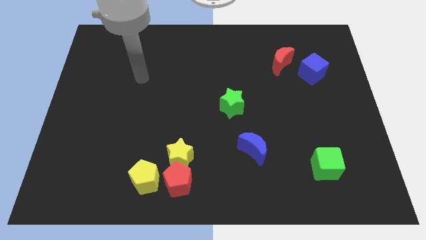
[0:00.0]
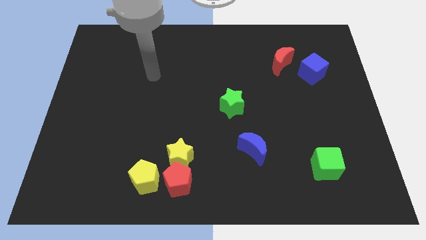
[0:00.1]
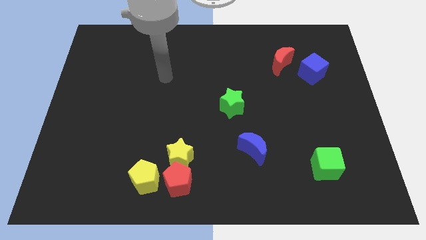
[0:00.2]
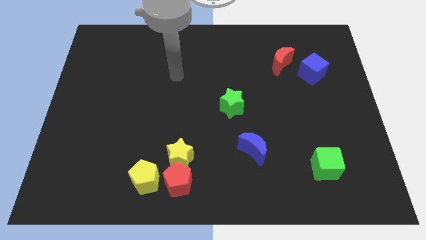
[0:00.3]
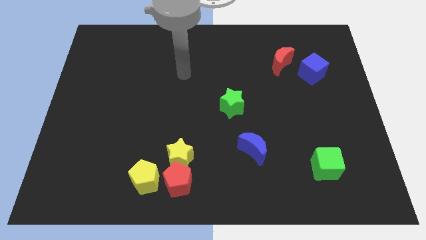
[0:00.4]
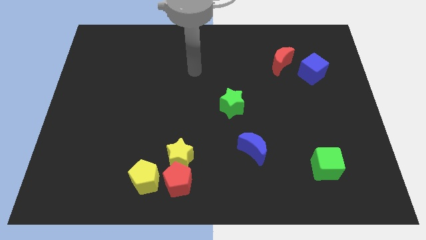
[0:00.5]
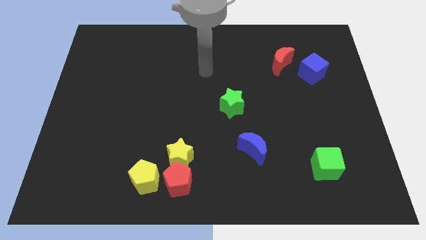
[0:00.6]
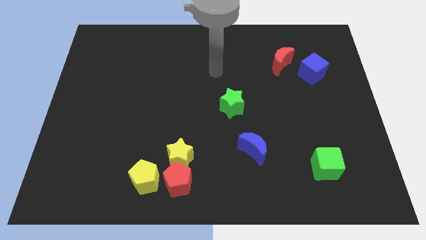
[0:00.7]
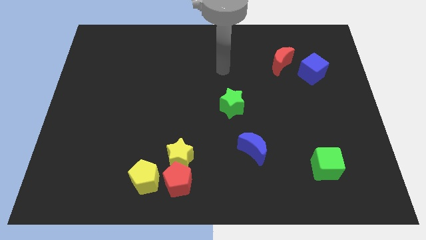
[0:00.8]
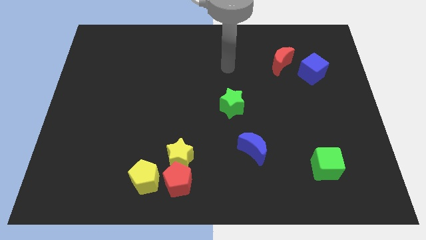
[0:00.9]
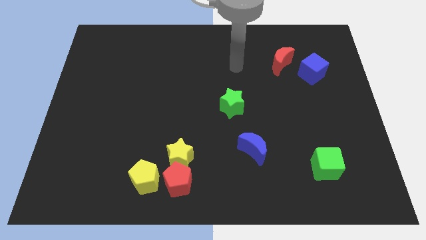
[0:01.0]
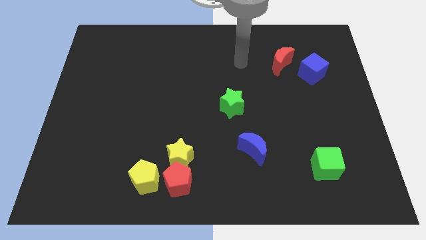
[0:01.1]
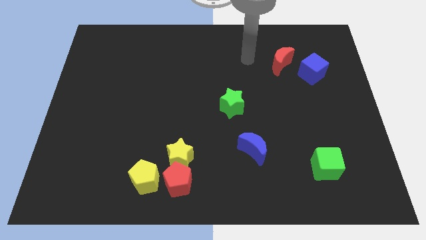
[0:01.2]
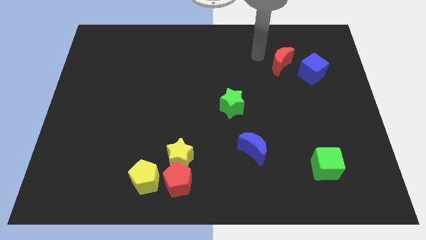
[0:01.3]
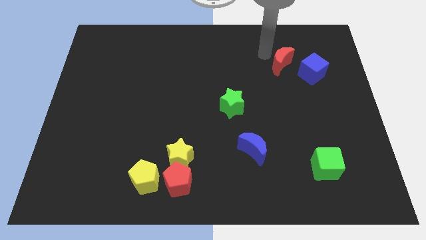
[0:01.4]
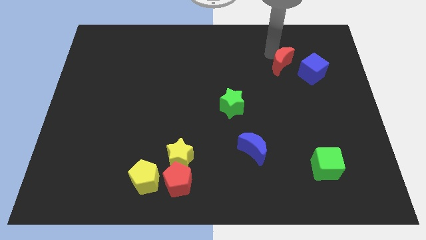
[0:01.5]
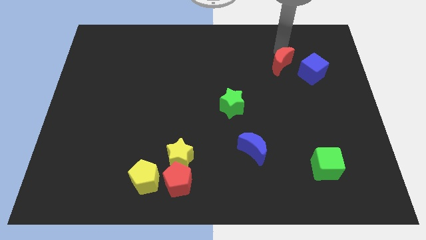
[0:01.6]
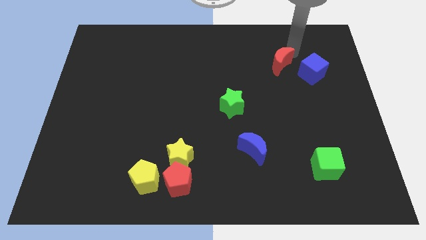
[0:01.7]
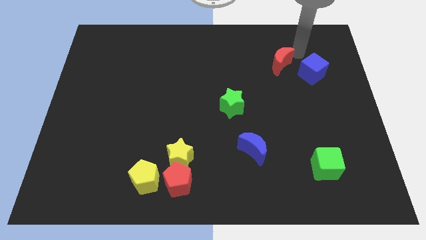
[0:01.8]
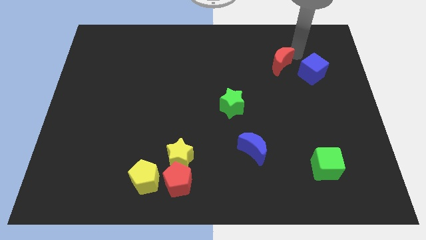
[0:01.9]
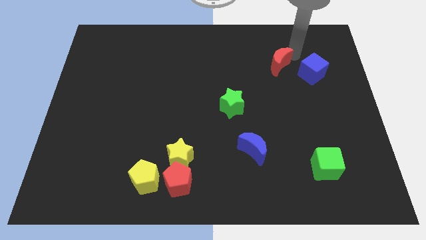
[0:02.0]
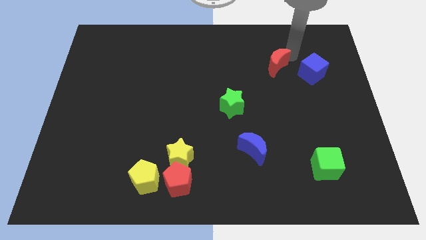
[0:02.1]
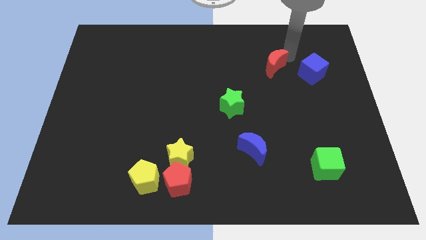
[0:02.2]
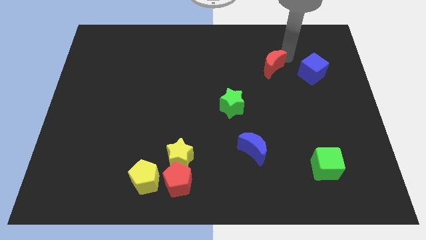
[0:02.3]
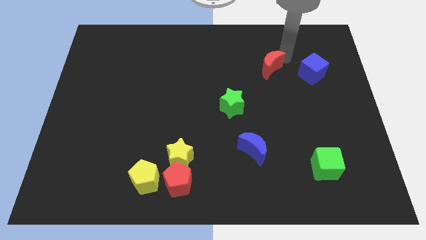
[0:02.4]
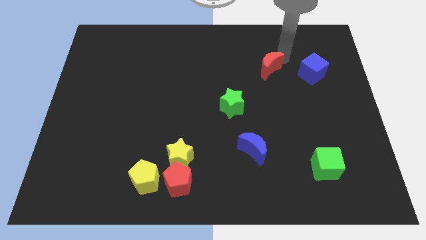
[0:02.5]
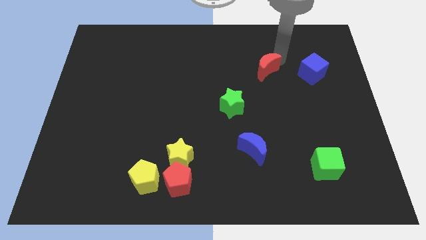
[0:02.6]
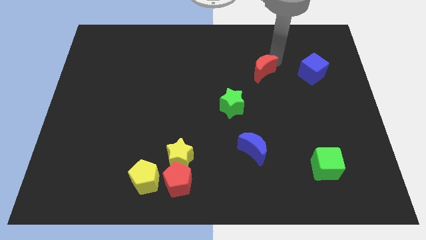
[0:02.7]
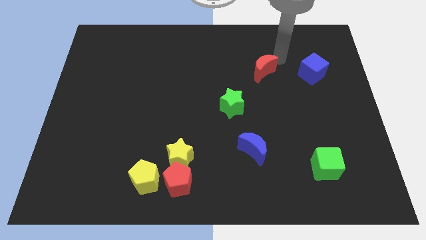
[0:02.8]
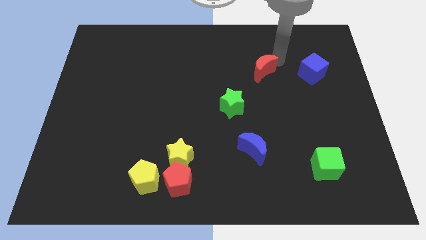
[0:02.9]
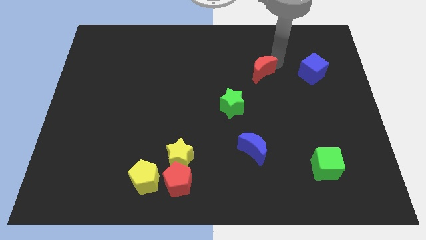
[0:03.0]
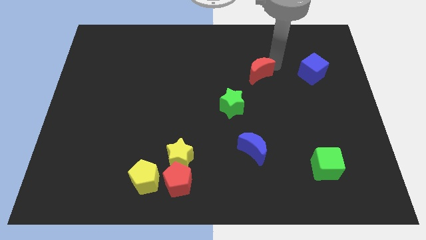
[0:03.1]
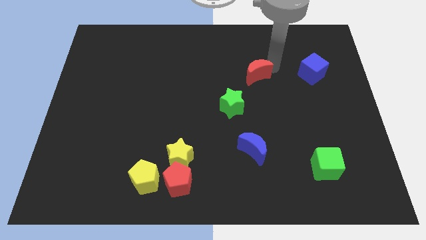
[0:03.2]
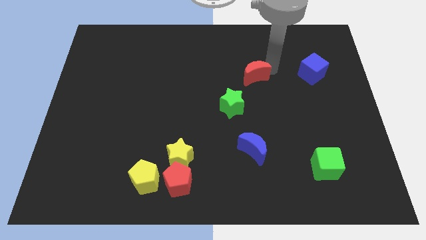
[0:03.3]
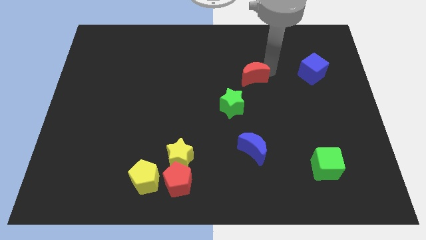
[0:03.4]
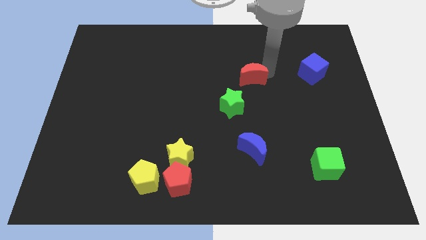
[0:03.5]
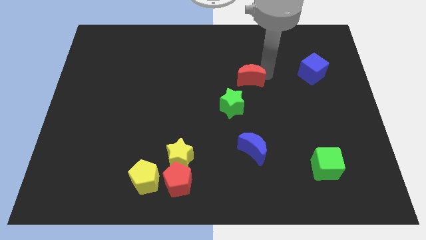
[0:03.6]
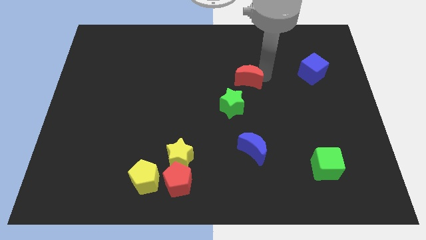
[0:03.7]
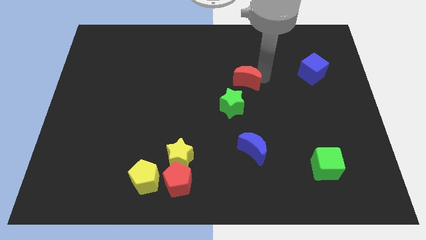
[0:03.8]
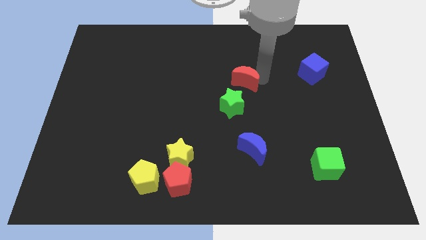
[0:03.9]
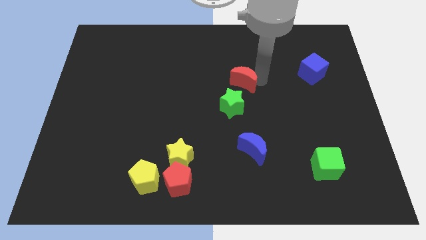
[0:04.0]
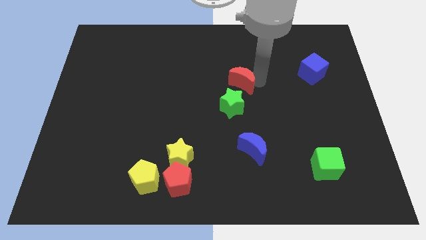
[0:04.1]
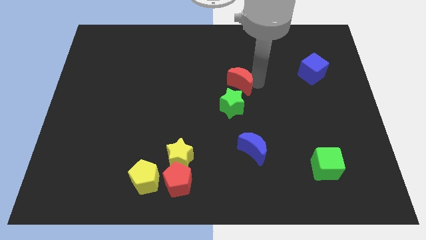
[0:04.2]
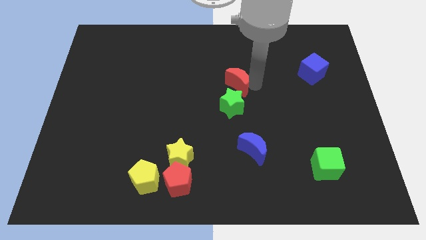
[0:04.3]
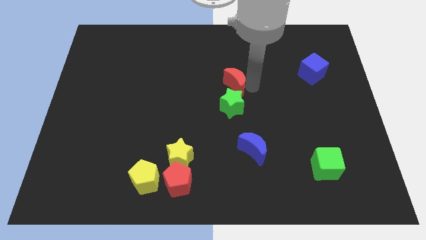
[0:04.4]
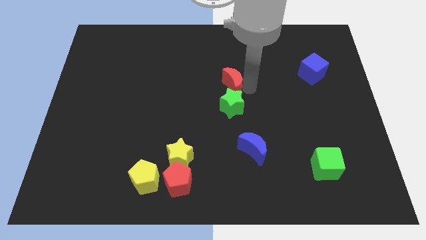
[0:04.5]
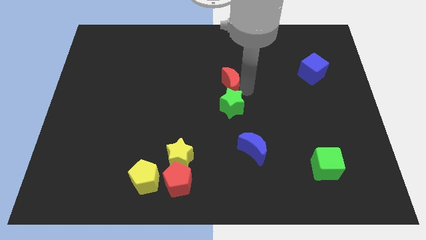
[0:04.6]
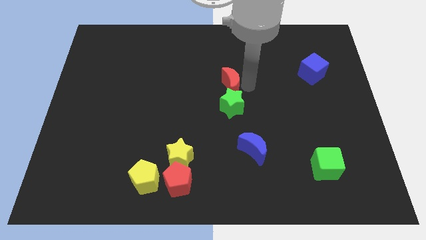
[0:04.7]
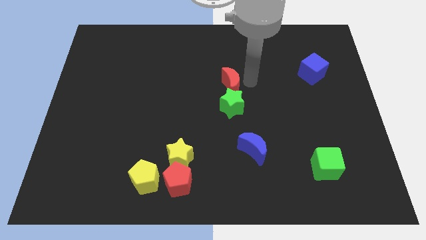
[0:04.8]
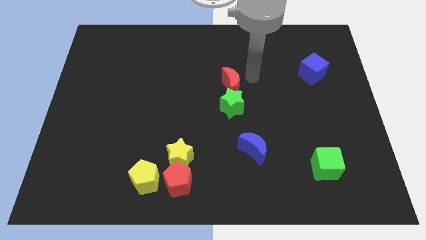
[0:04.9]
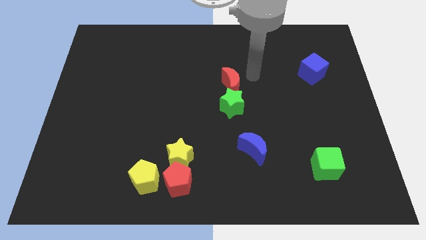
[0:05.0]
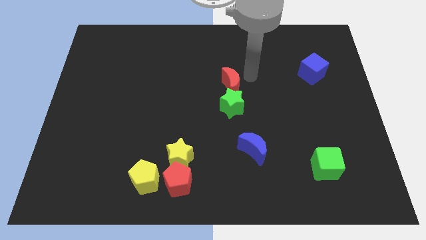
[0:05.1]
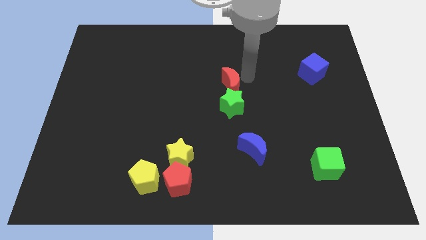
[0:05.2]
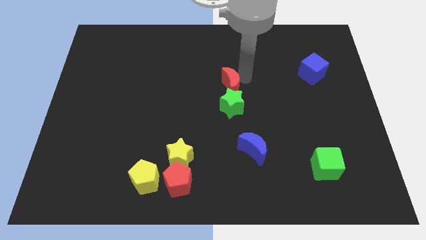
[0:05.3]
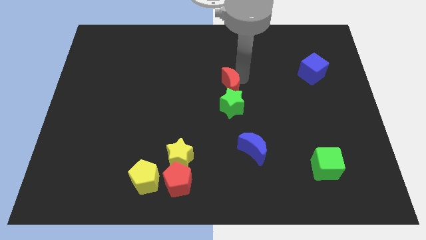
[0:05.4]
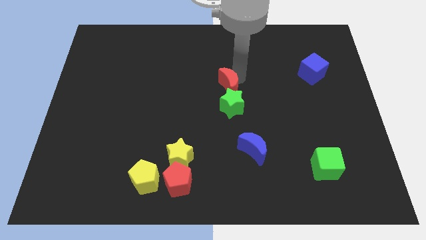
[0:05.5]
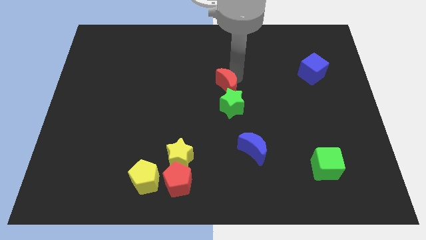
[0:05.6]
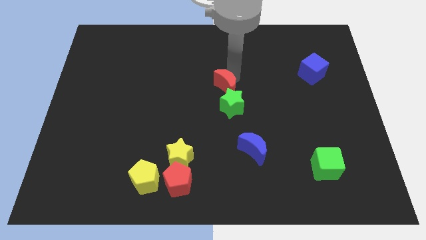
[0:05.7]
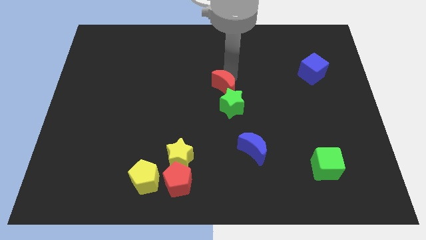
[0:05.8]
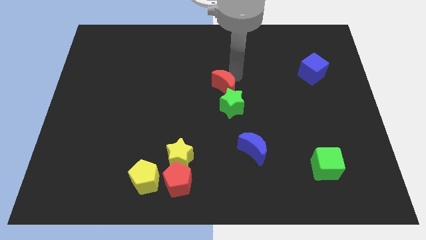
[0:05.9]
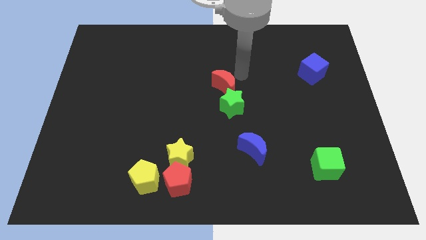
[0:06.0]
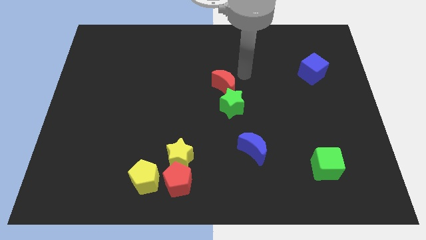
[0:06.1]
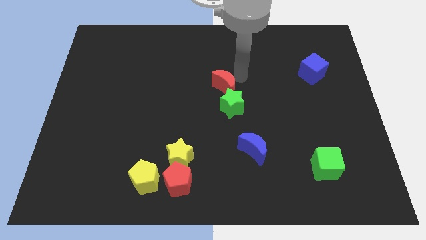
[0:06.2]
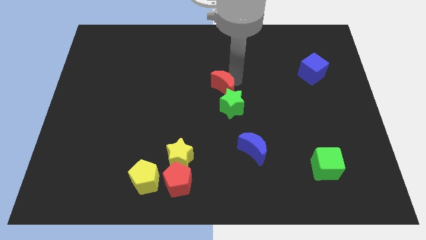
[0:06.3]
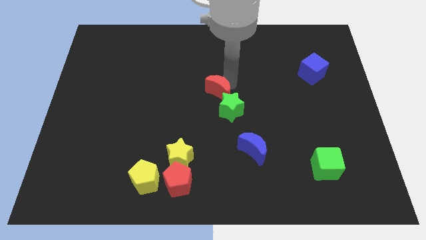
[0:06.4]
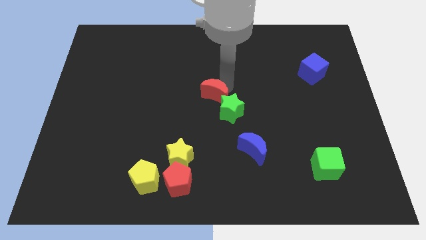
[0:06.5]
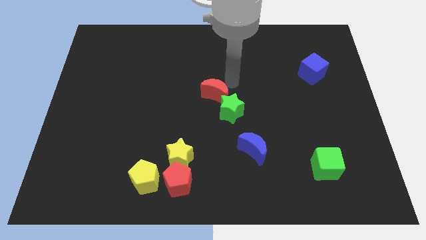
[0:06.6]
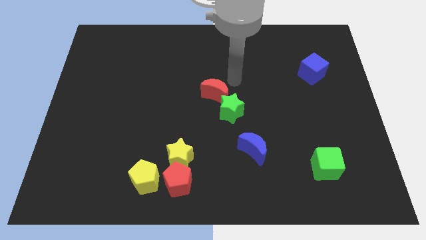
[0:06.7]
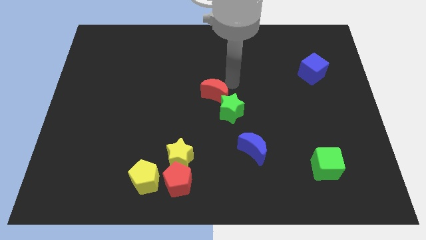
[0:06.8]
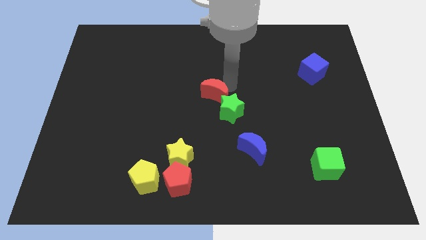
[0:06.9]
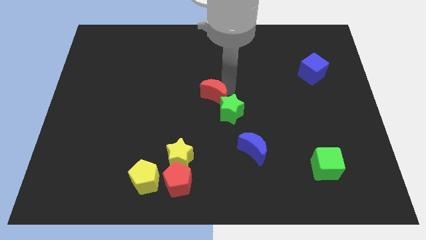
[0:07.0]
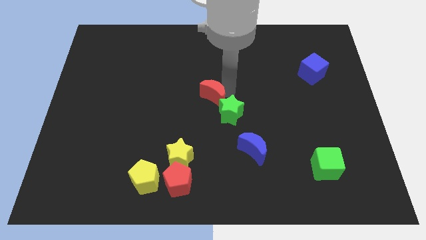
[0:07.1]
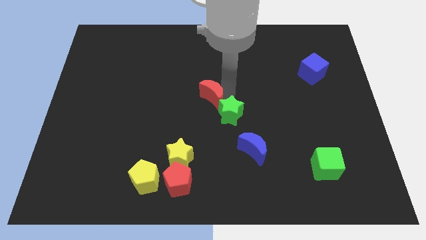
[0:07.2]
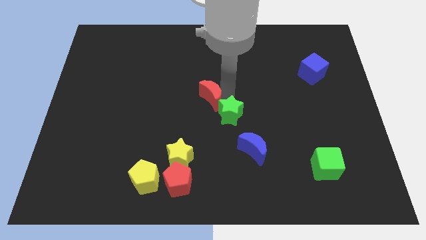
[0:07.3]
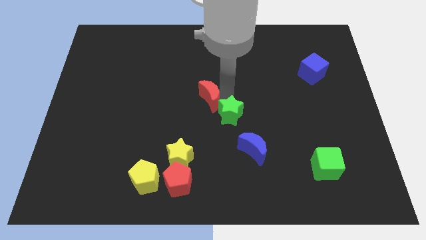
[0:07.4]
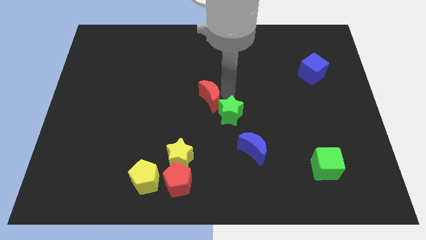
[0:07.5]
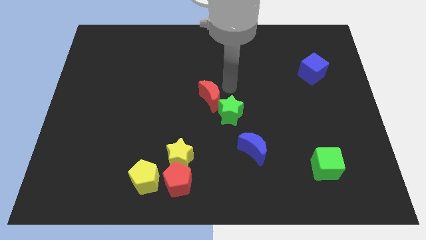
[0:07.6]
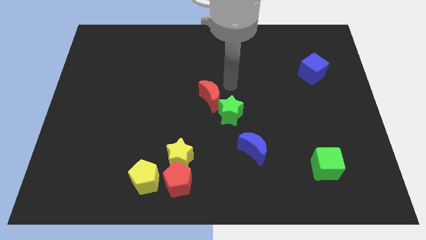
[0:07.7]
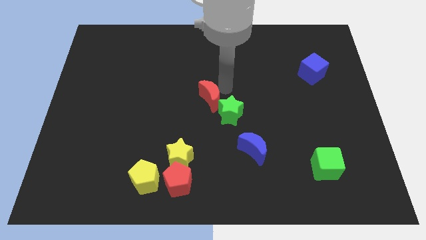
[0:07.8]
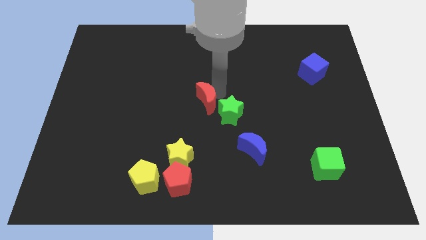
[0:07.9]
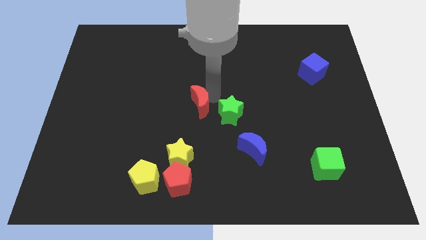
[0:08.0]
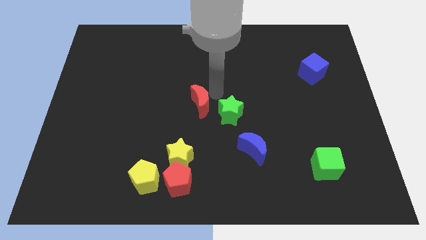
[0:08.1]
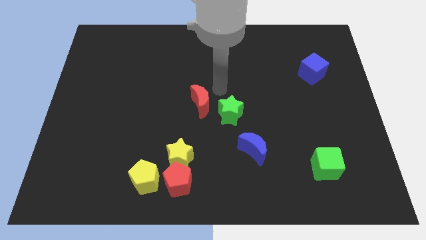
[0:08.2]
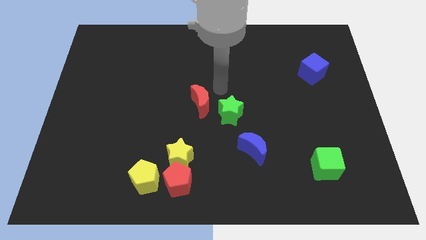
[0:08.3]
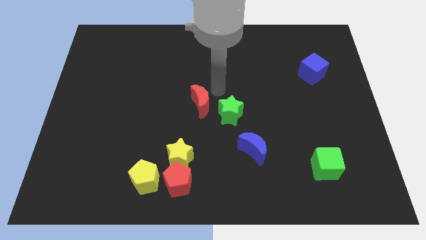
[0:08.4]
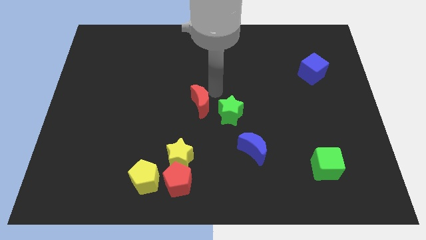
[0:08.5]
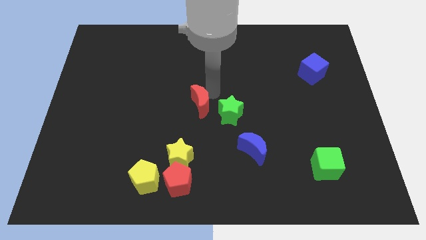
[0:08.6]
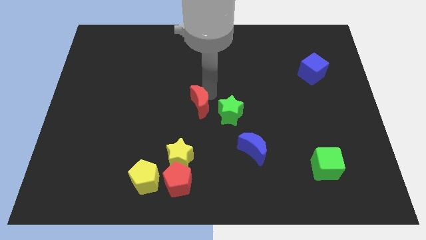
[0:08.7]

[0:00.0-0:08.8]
slide the red moon to the top side of the yellow star
